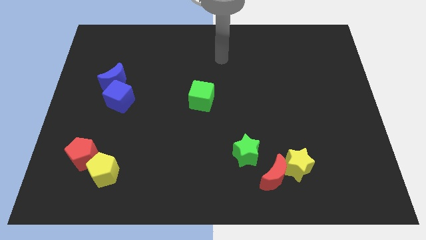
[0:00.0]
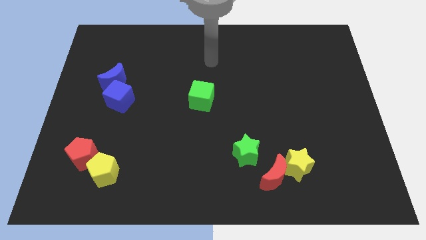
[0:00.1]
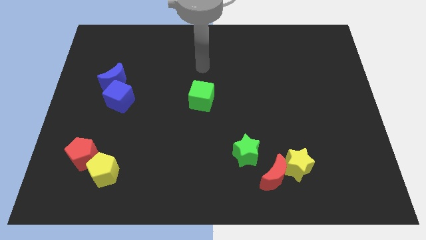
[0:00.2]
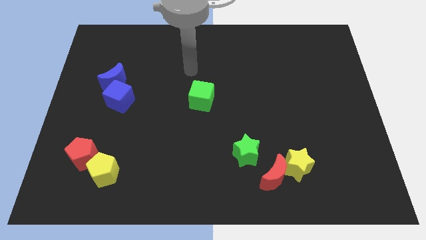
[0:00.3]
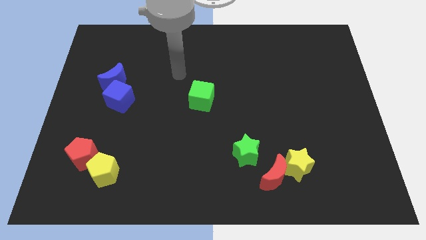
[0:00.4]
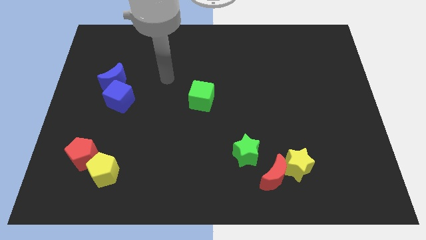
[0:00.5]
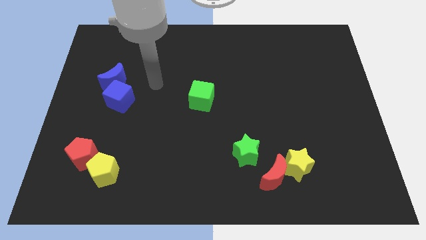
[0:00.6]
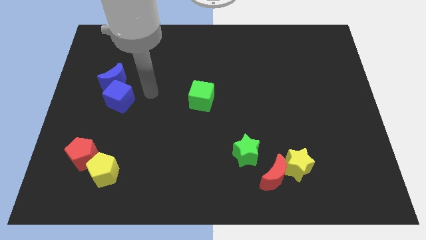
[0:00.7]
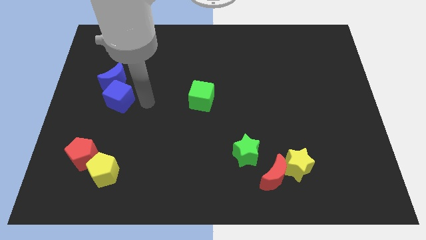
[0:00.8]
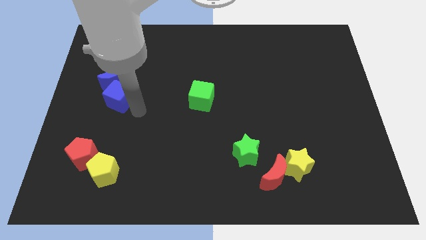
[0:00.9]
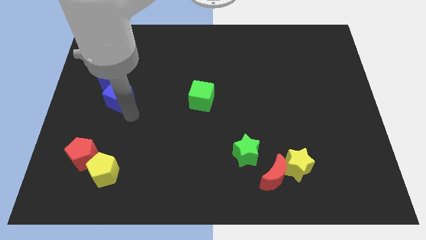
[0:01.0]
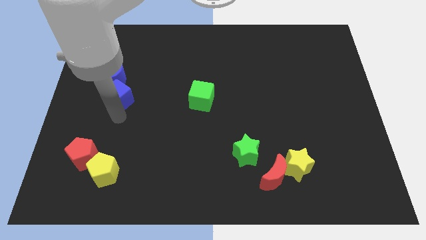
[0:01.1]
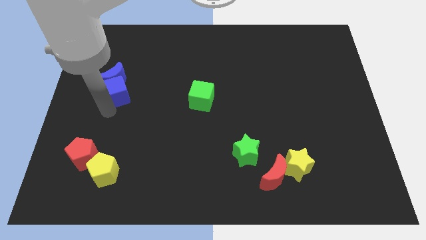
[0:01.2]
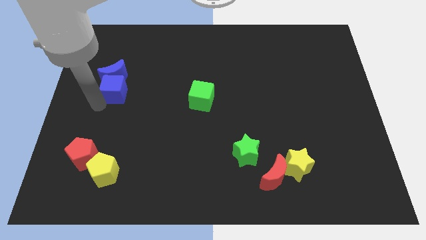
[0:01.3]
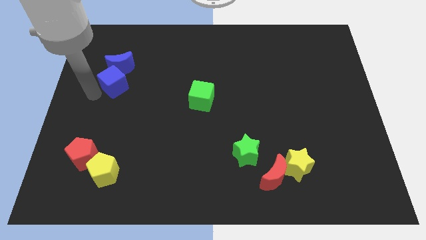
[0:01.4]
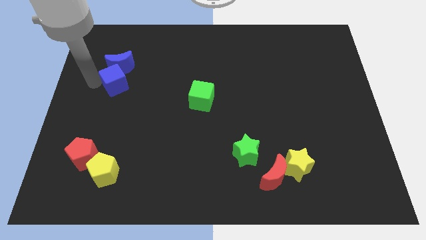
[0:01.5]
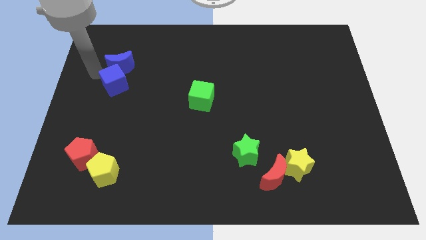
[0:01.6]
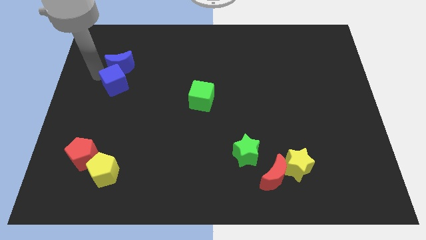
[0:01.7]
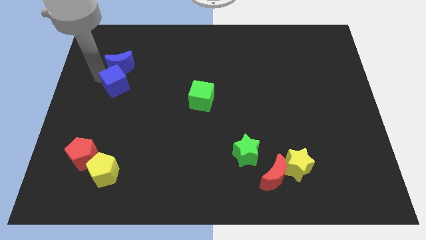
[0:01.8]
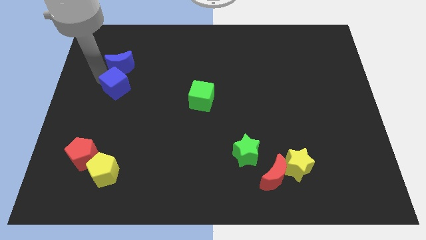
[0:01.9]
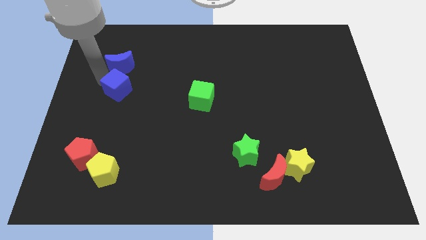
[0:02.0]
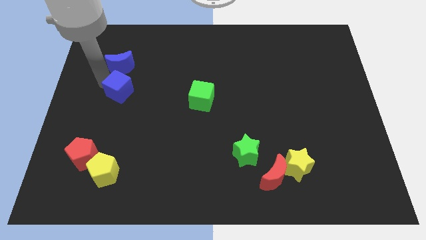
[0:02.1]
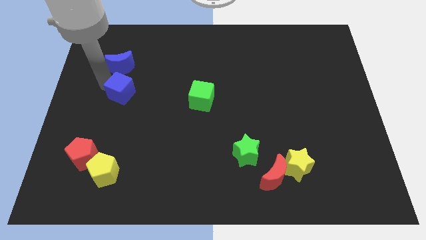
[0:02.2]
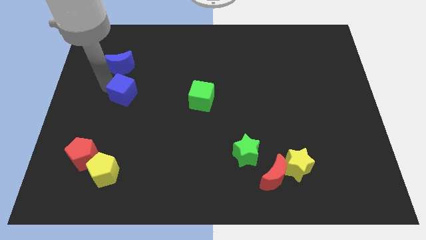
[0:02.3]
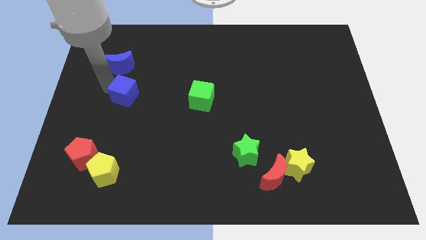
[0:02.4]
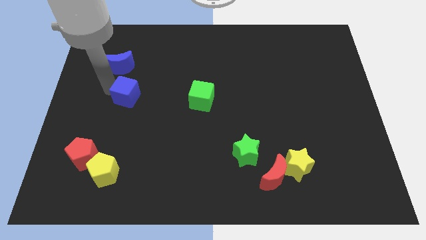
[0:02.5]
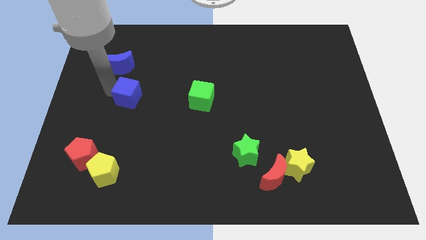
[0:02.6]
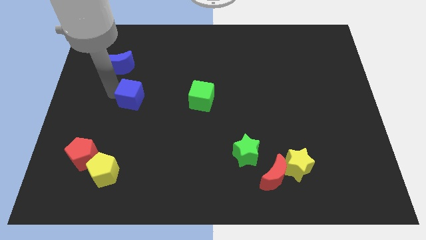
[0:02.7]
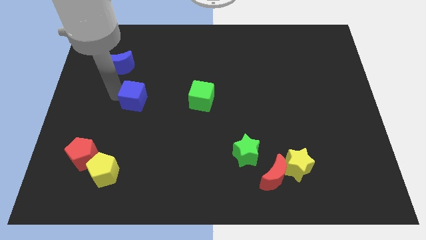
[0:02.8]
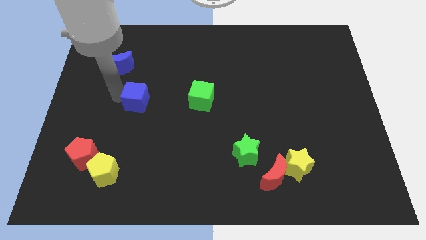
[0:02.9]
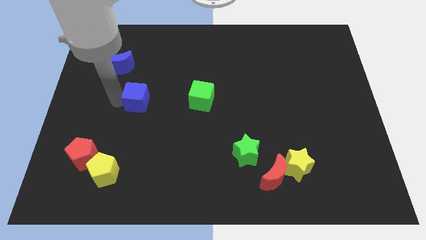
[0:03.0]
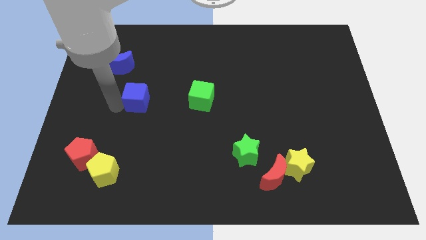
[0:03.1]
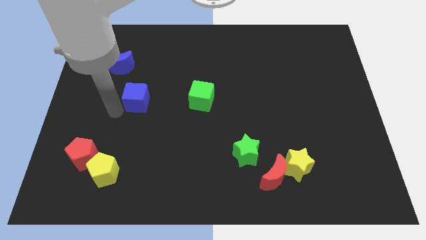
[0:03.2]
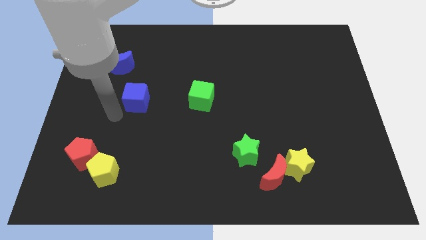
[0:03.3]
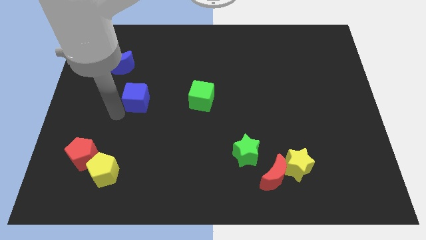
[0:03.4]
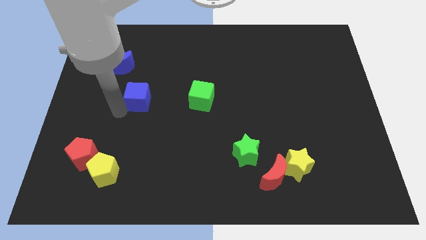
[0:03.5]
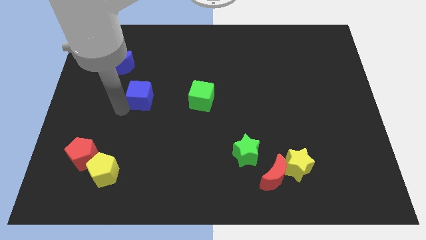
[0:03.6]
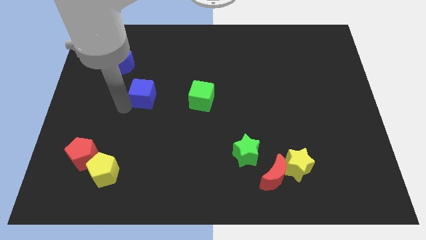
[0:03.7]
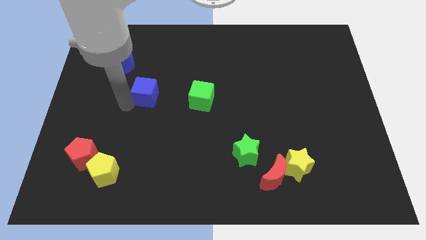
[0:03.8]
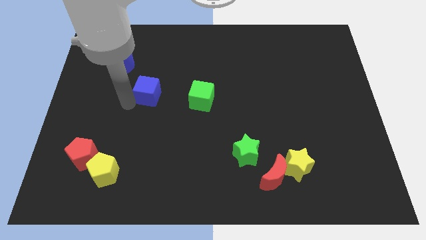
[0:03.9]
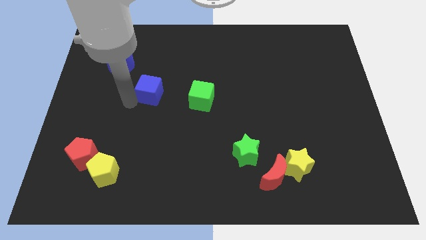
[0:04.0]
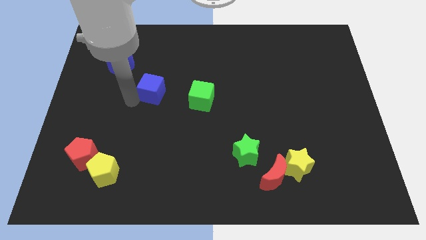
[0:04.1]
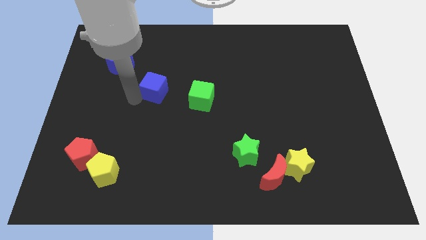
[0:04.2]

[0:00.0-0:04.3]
push the blue cube slightly upwards and then to the right

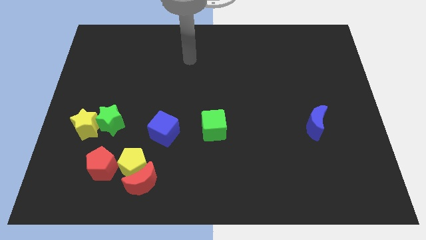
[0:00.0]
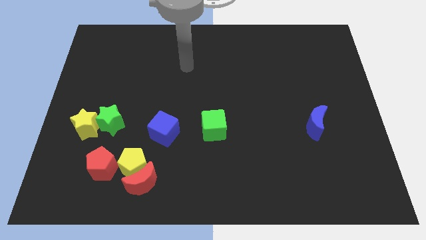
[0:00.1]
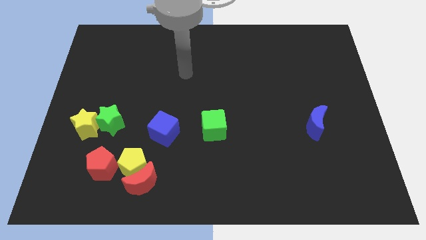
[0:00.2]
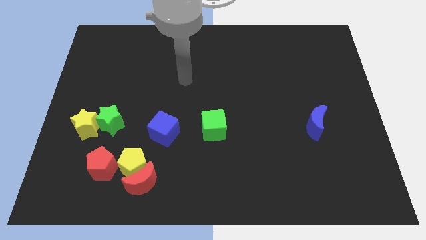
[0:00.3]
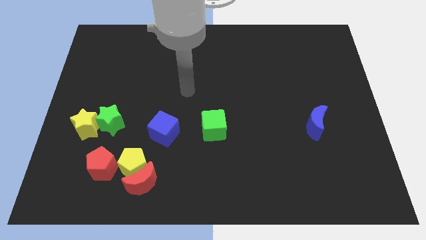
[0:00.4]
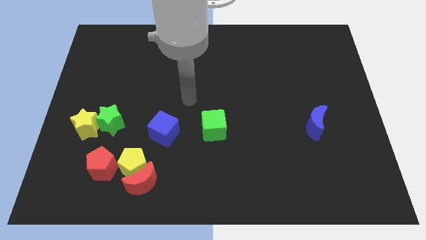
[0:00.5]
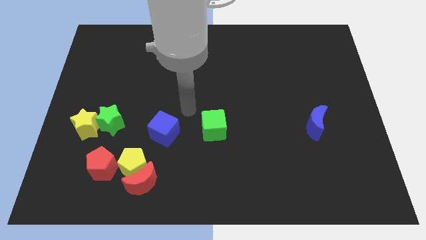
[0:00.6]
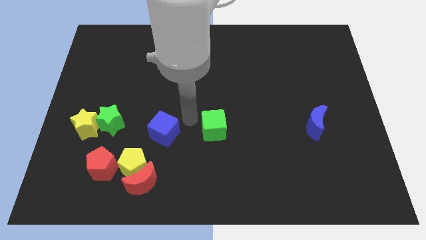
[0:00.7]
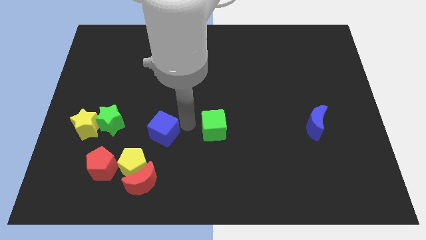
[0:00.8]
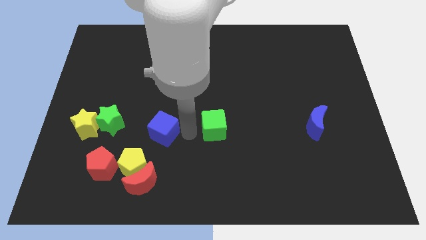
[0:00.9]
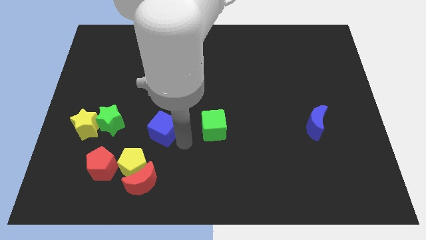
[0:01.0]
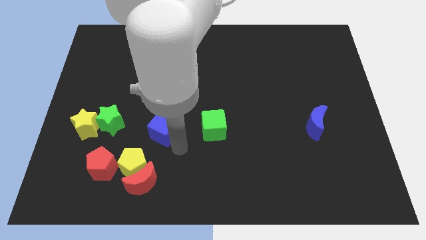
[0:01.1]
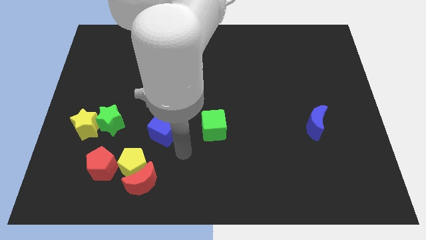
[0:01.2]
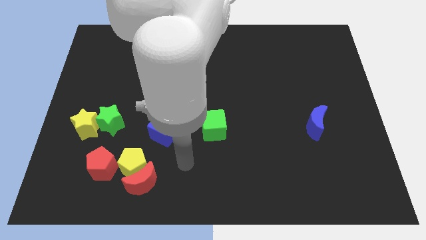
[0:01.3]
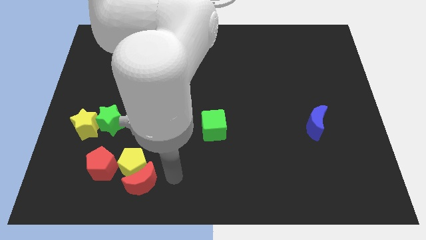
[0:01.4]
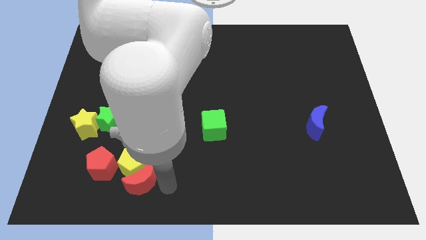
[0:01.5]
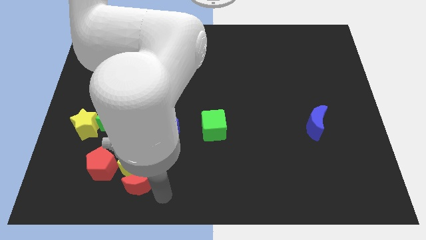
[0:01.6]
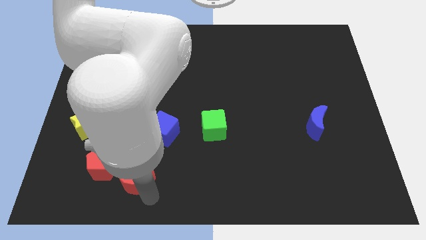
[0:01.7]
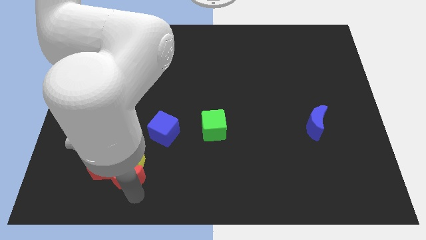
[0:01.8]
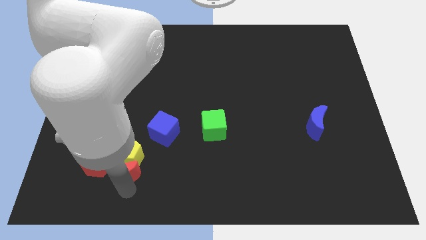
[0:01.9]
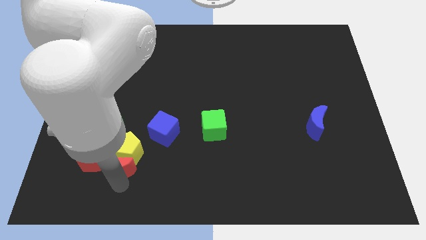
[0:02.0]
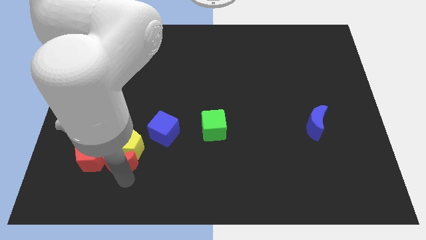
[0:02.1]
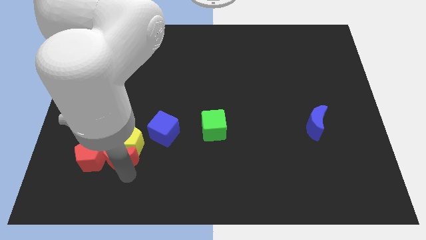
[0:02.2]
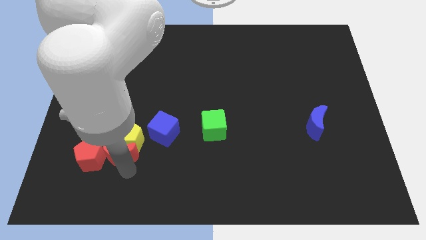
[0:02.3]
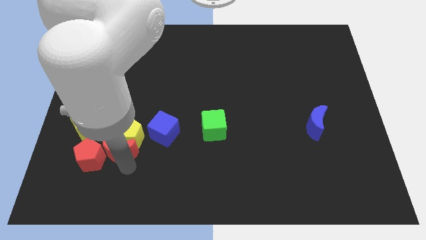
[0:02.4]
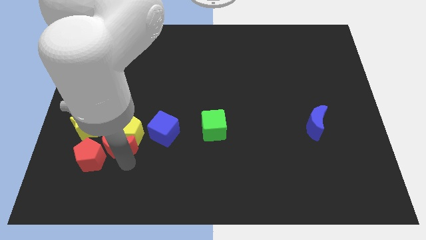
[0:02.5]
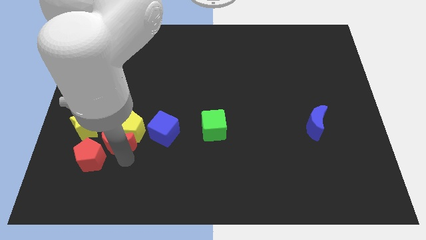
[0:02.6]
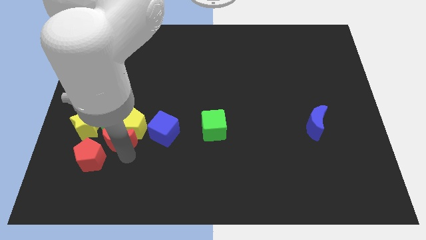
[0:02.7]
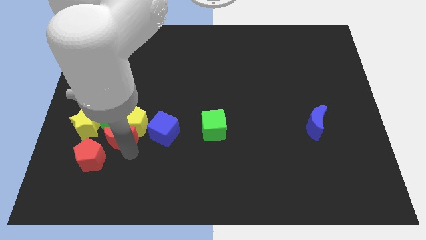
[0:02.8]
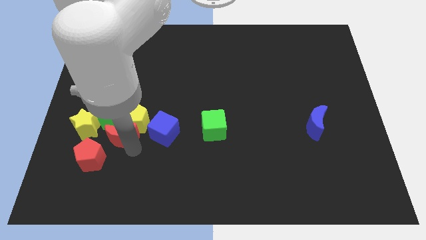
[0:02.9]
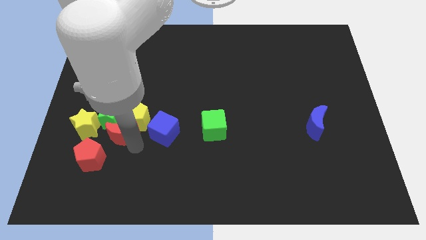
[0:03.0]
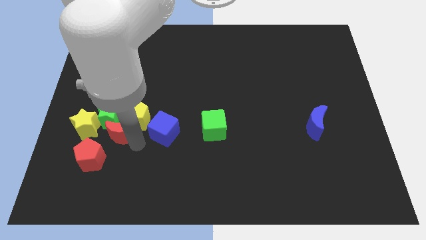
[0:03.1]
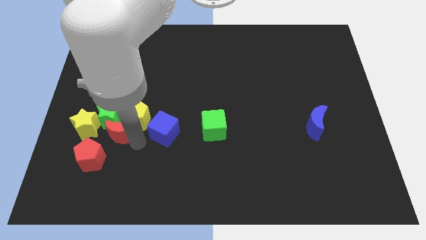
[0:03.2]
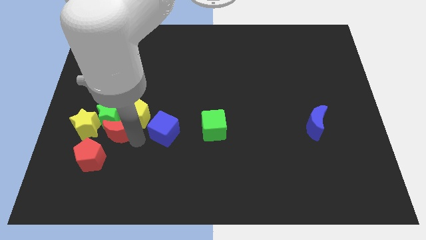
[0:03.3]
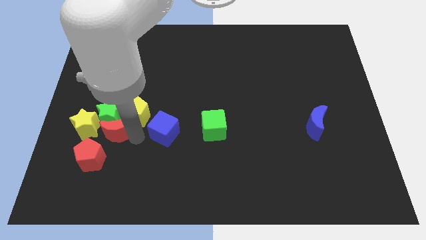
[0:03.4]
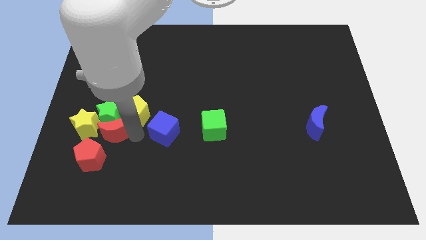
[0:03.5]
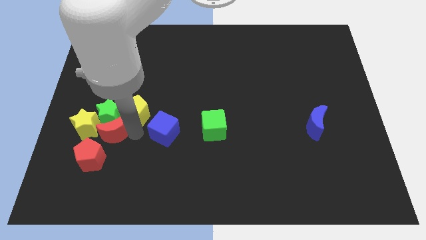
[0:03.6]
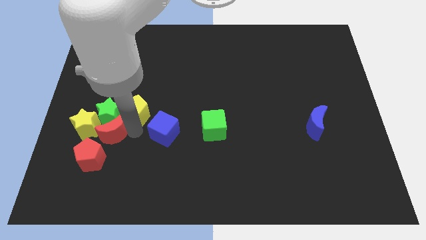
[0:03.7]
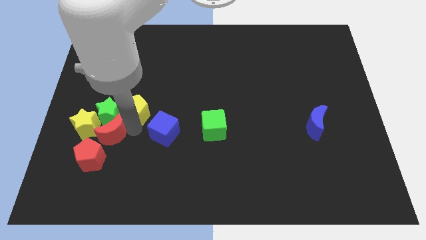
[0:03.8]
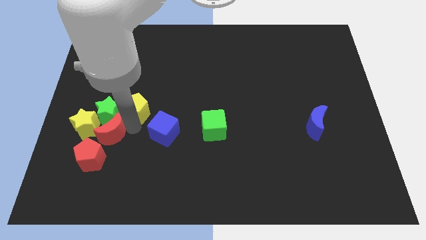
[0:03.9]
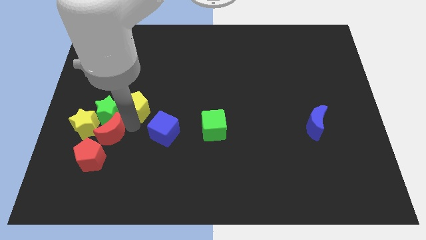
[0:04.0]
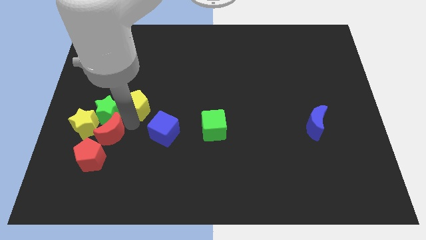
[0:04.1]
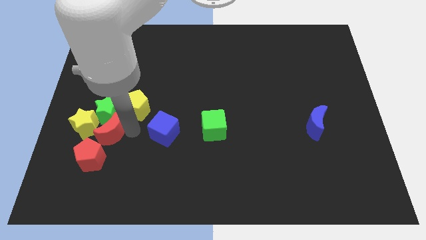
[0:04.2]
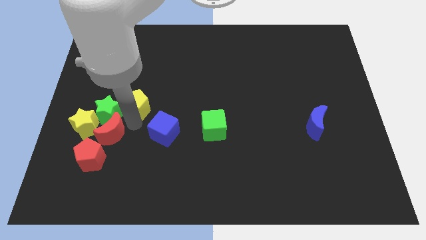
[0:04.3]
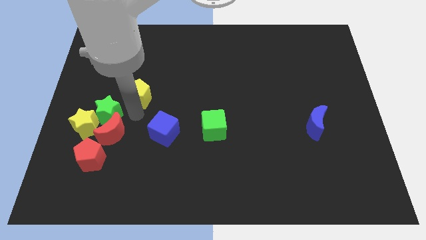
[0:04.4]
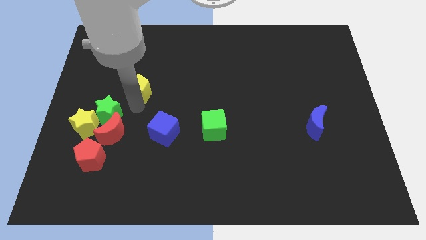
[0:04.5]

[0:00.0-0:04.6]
move the yellow pentagon upwards
